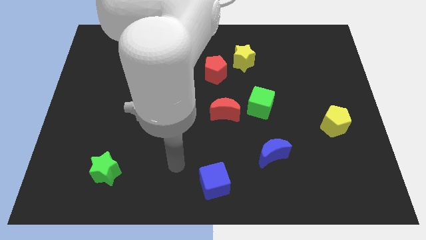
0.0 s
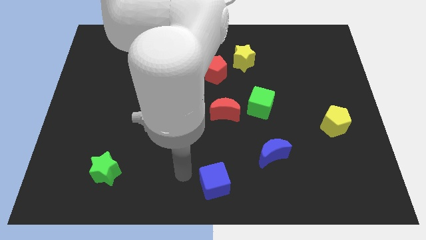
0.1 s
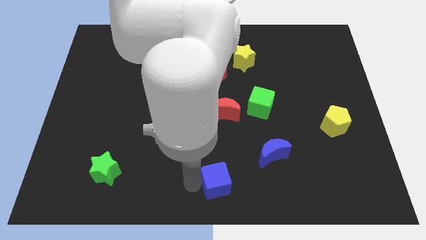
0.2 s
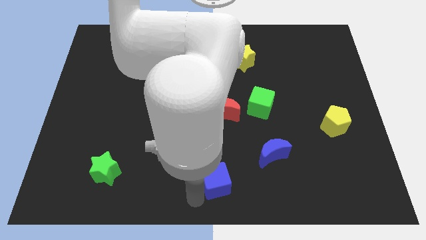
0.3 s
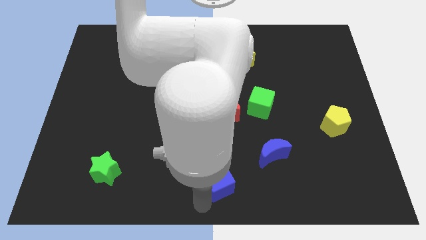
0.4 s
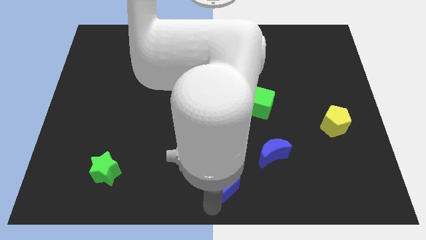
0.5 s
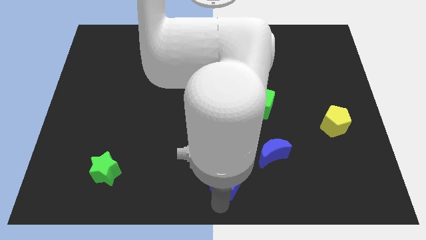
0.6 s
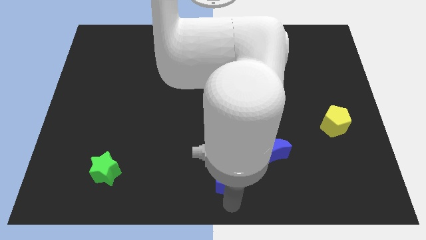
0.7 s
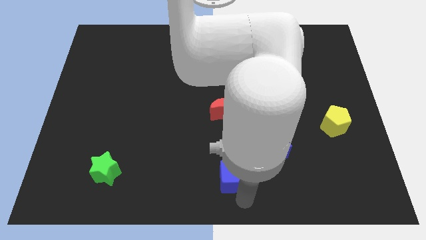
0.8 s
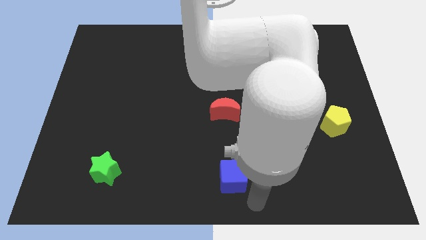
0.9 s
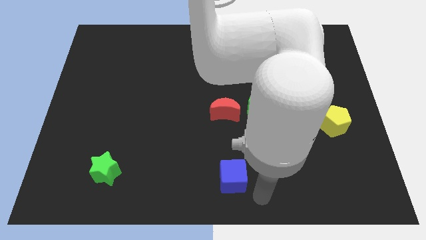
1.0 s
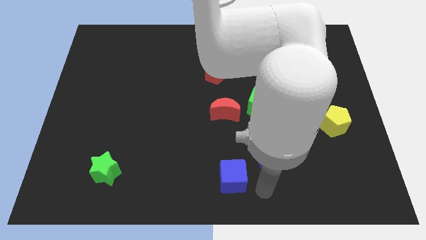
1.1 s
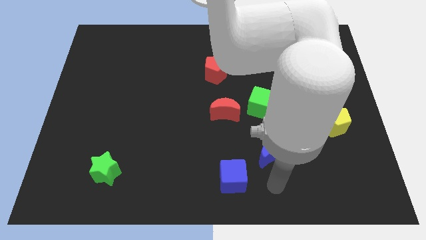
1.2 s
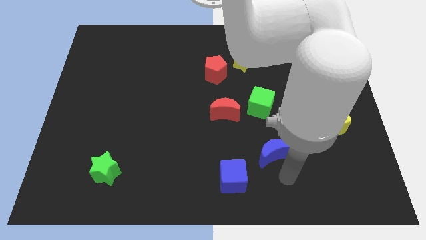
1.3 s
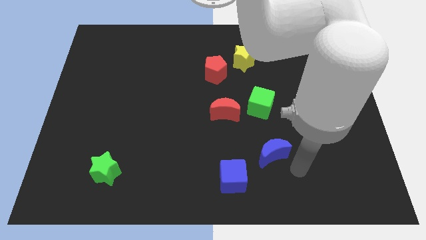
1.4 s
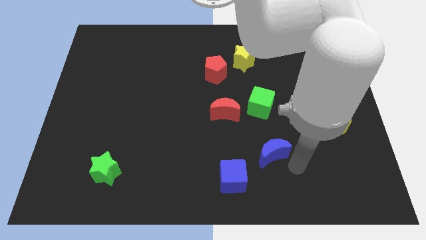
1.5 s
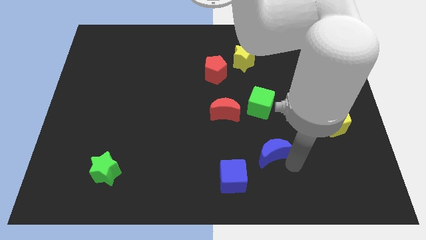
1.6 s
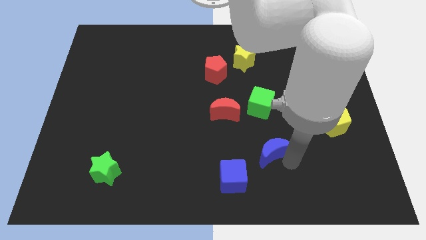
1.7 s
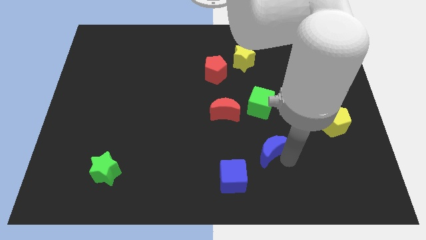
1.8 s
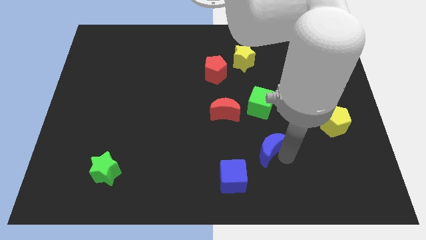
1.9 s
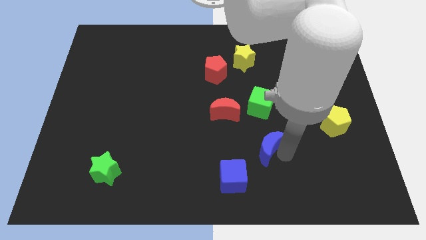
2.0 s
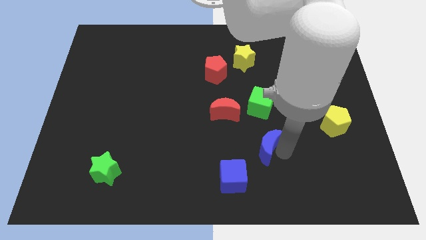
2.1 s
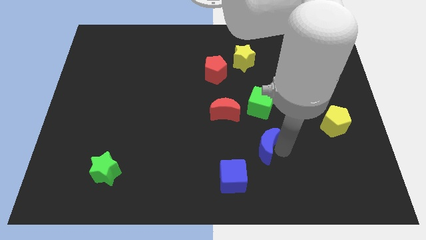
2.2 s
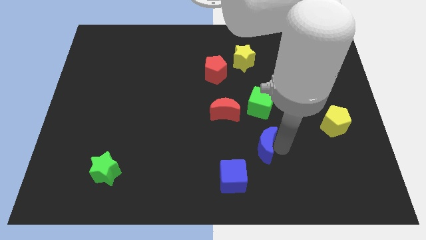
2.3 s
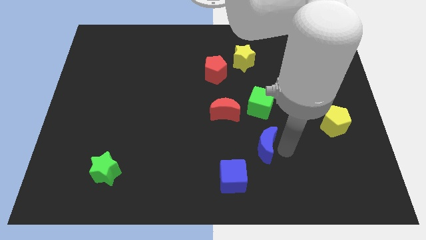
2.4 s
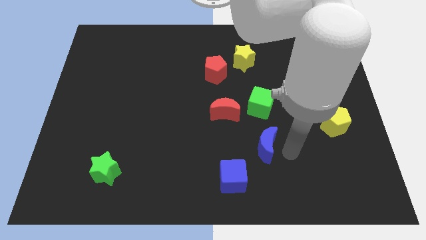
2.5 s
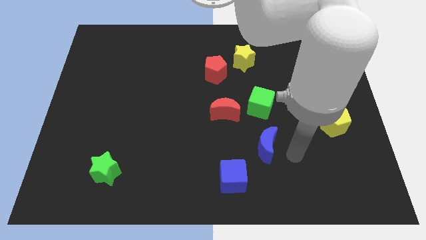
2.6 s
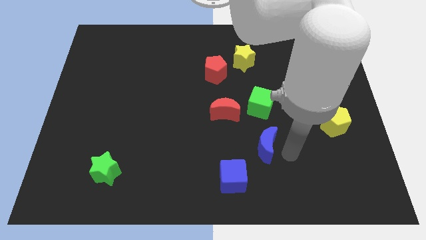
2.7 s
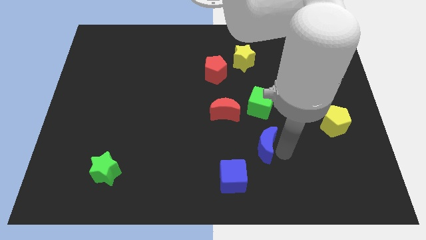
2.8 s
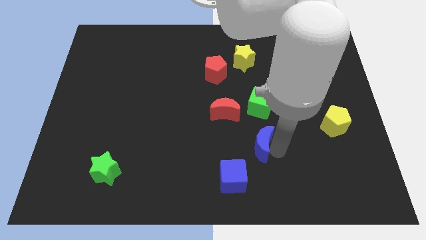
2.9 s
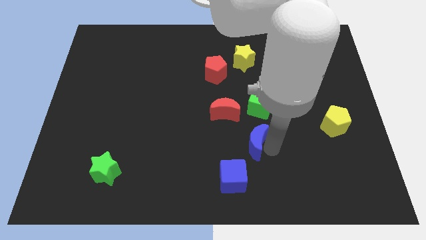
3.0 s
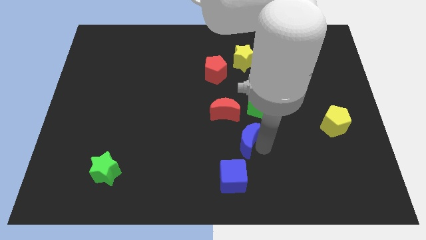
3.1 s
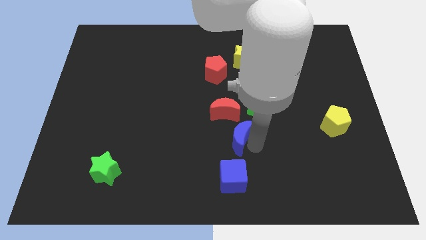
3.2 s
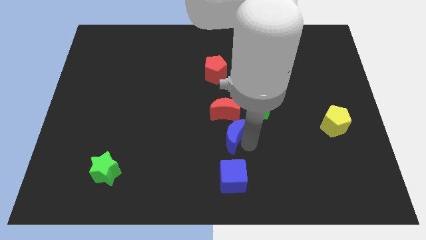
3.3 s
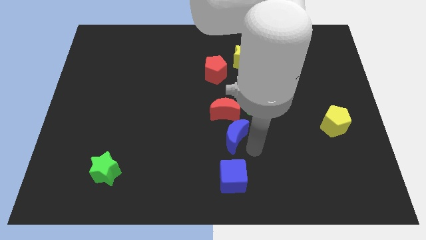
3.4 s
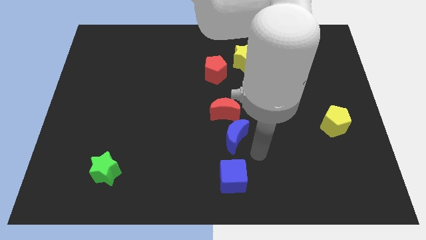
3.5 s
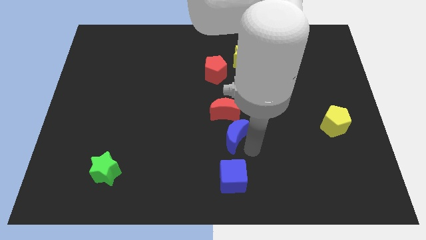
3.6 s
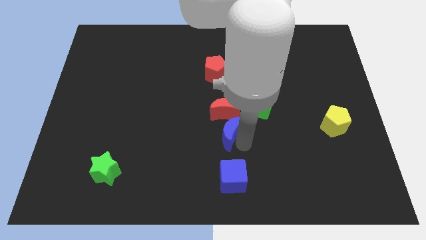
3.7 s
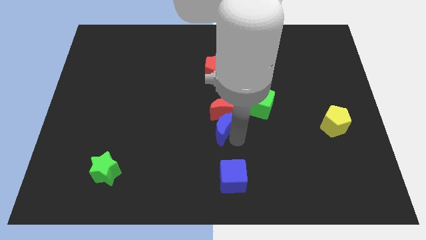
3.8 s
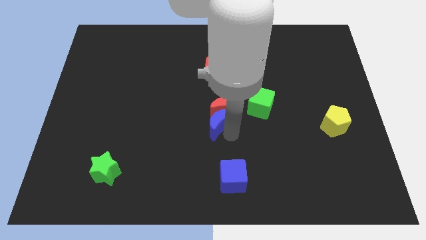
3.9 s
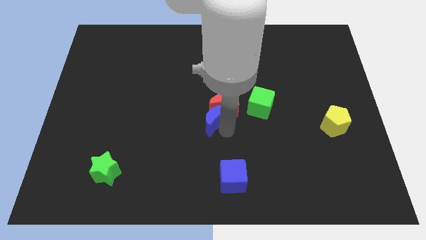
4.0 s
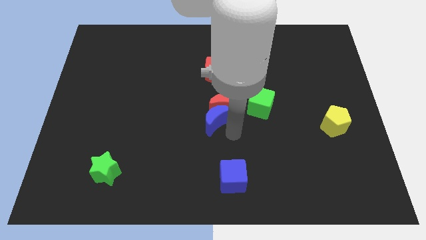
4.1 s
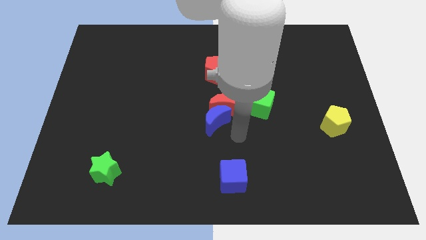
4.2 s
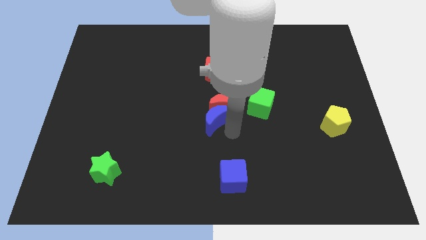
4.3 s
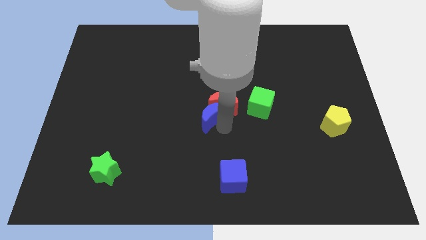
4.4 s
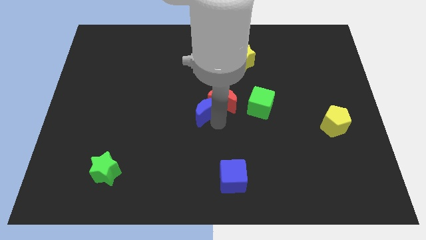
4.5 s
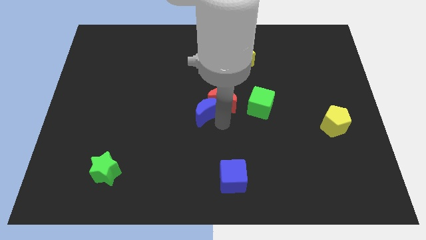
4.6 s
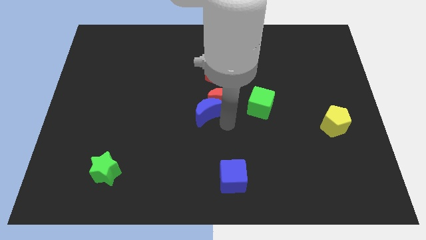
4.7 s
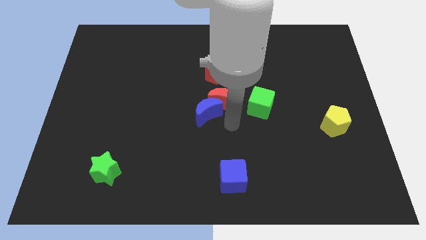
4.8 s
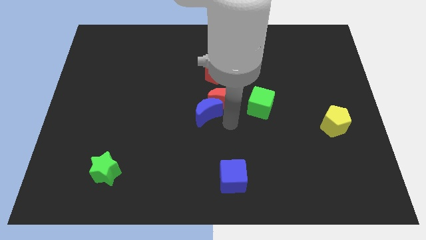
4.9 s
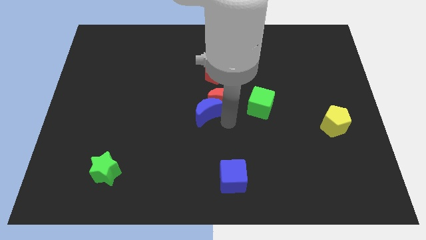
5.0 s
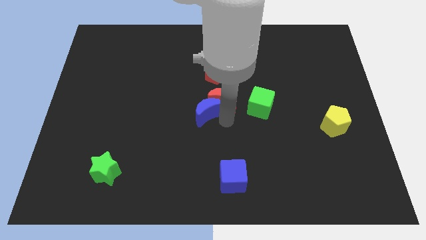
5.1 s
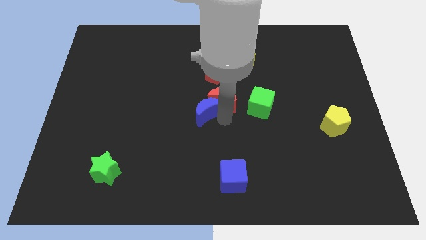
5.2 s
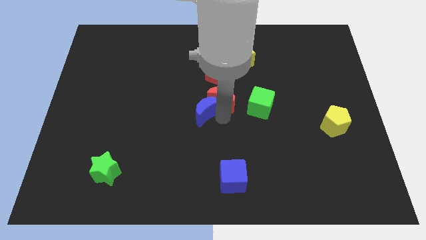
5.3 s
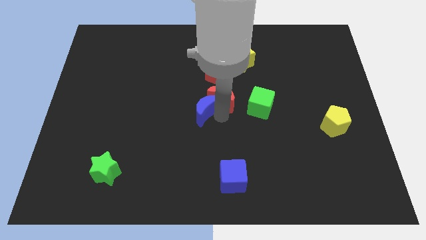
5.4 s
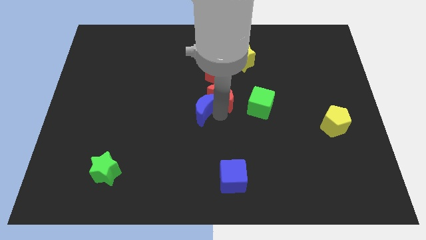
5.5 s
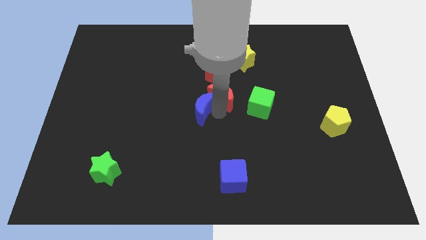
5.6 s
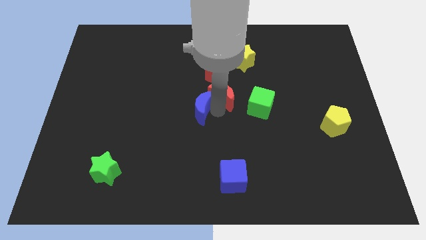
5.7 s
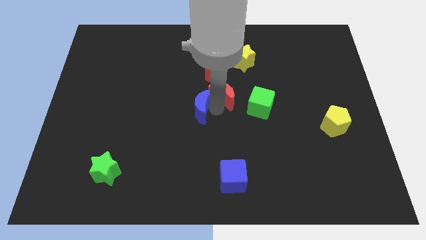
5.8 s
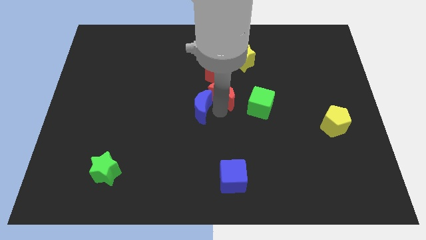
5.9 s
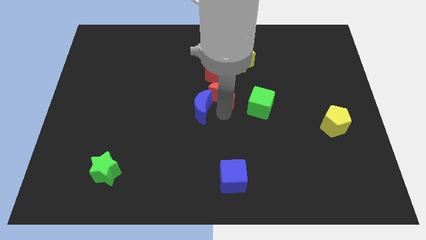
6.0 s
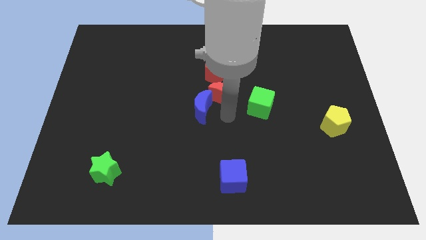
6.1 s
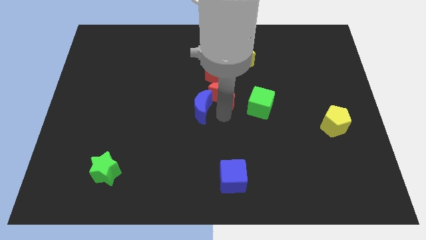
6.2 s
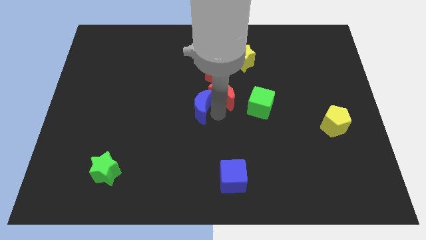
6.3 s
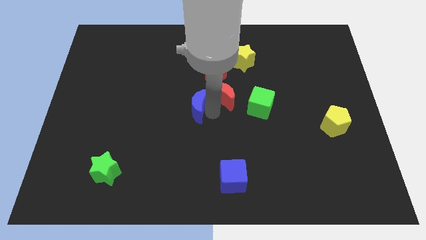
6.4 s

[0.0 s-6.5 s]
move the blue moon up and to the left

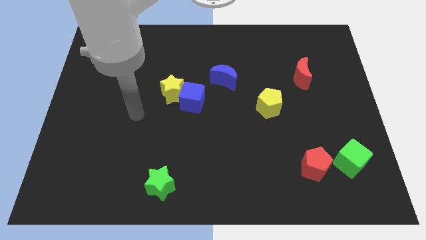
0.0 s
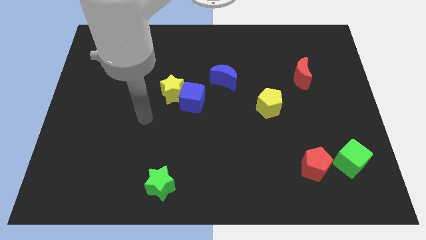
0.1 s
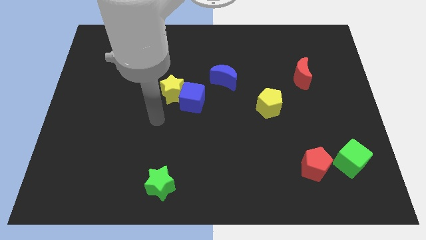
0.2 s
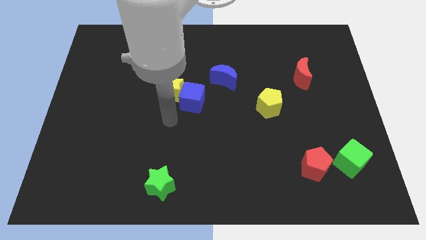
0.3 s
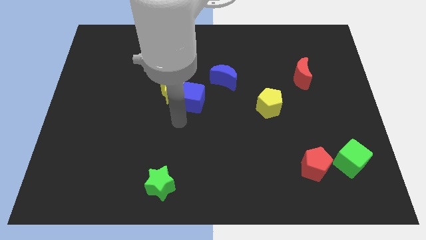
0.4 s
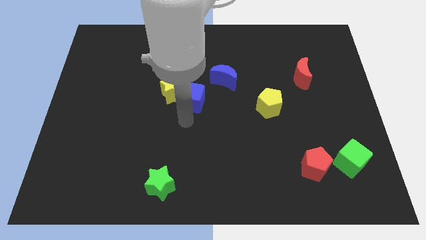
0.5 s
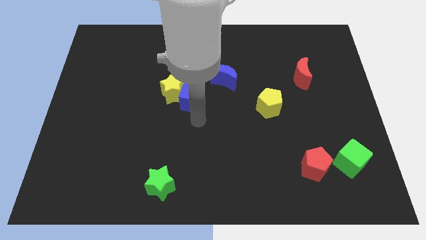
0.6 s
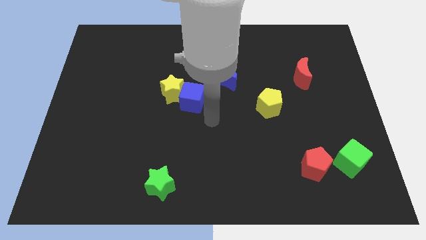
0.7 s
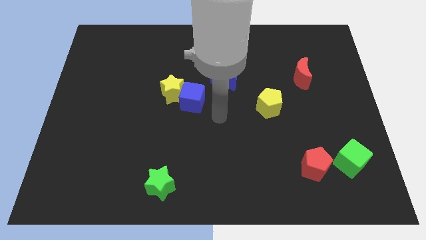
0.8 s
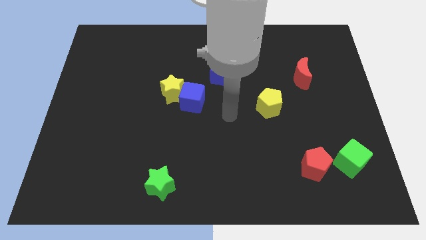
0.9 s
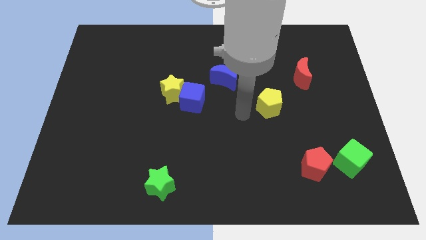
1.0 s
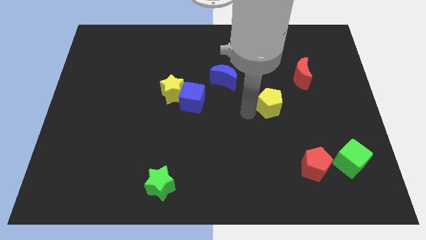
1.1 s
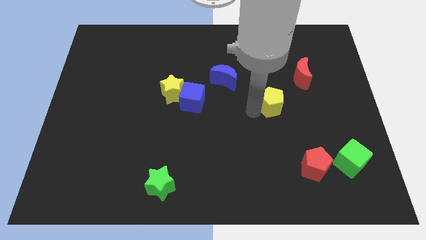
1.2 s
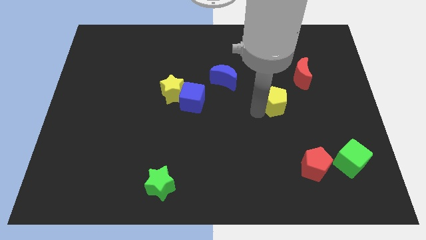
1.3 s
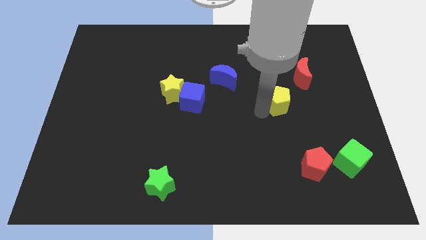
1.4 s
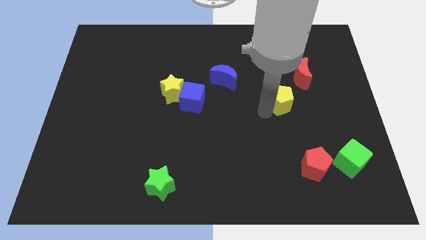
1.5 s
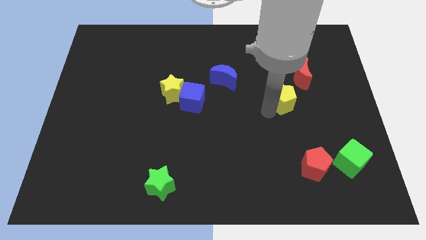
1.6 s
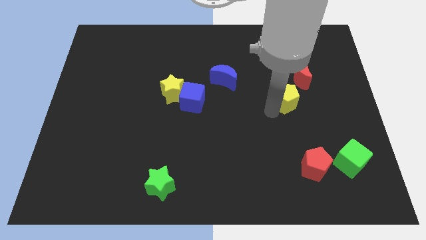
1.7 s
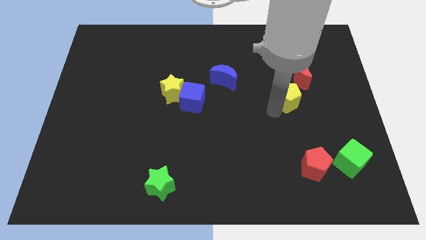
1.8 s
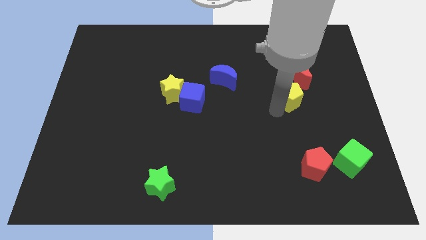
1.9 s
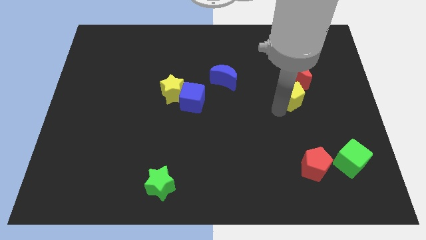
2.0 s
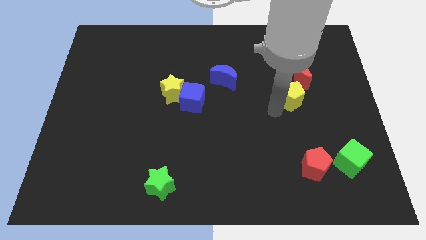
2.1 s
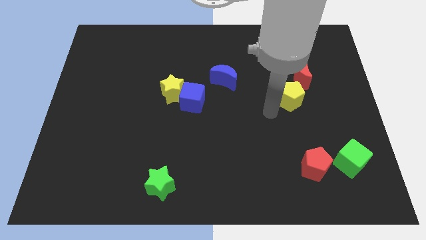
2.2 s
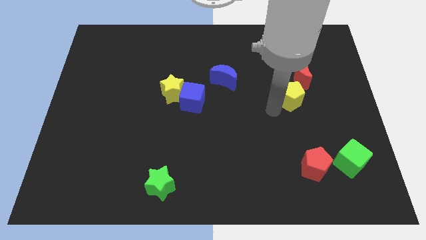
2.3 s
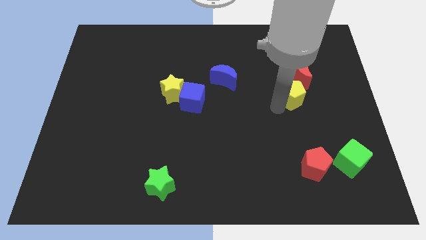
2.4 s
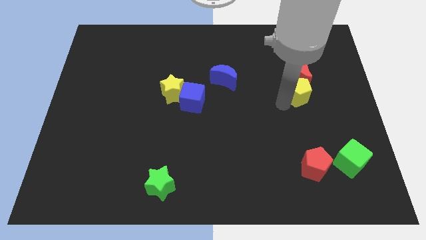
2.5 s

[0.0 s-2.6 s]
slightly slide the yellow pentagon upwards and right diagonally
